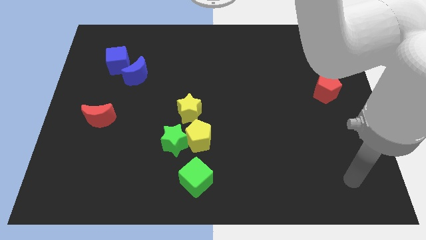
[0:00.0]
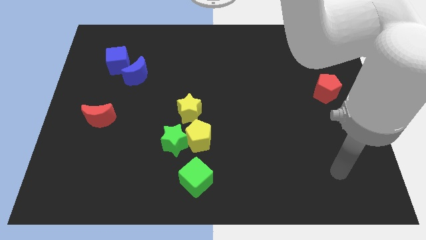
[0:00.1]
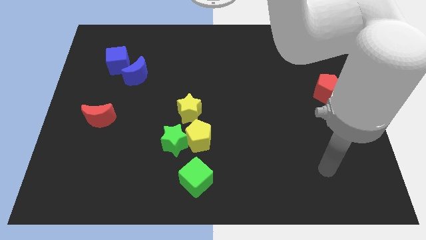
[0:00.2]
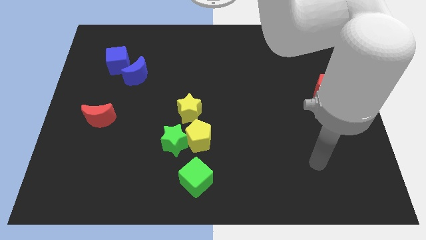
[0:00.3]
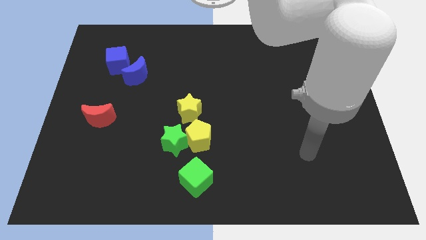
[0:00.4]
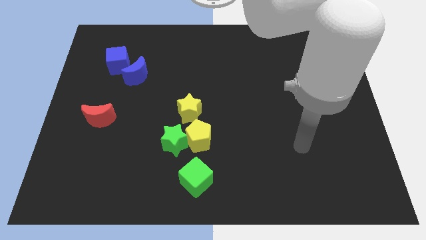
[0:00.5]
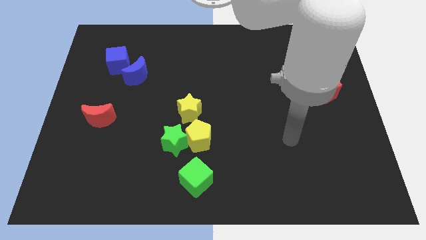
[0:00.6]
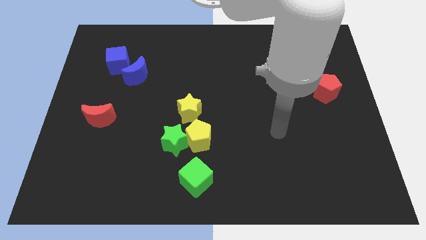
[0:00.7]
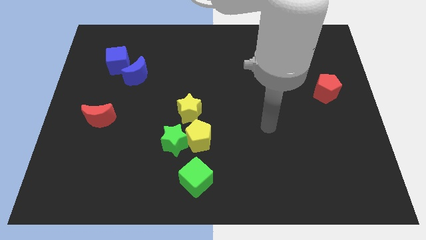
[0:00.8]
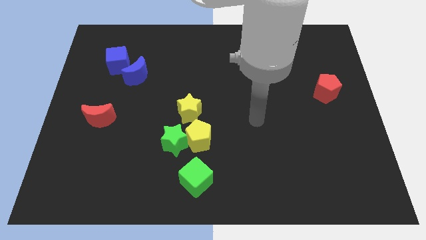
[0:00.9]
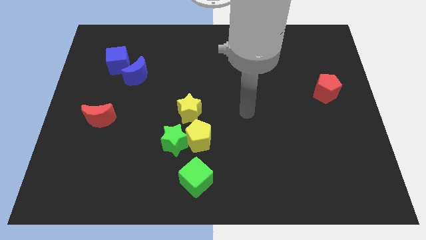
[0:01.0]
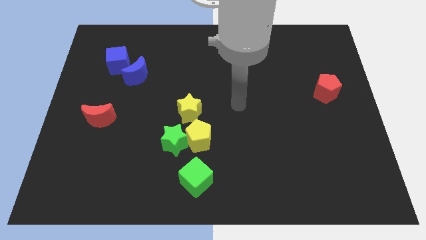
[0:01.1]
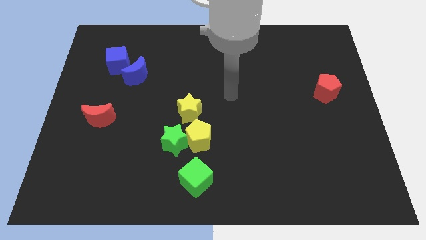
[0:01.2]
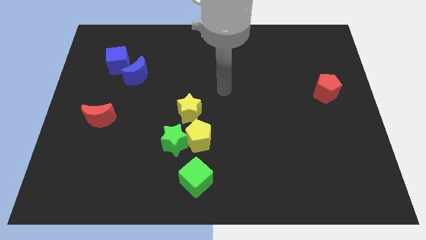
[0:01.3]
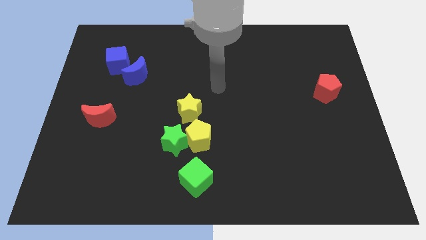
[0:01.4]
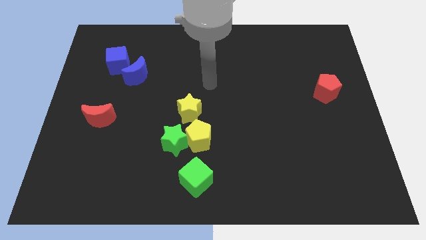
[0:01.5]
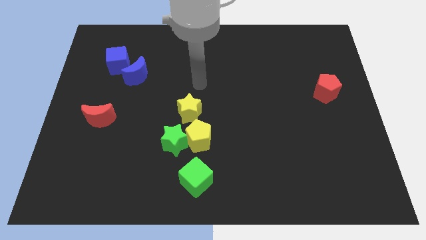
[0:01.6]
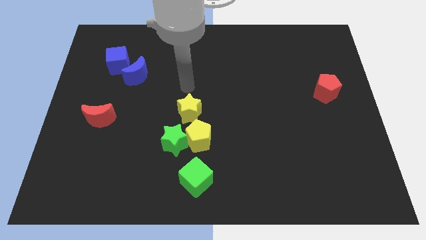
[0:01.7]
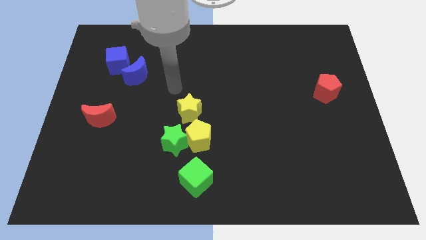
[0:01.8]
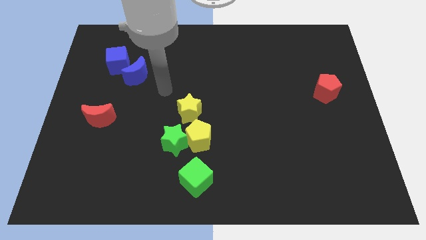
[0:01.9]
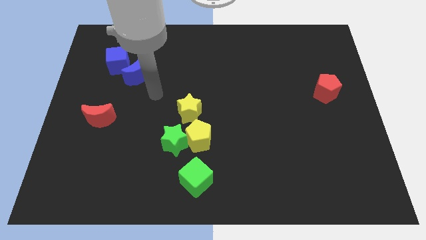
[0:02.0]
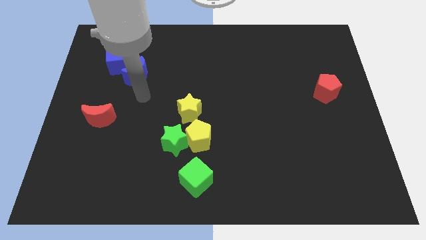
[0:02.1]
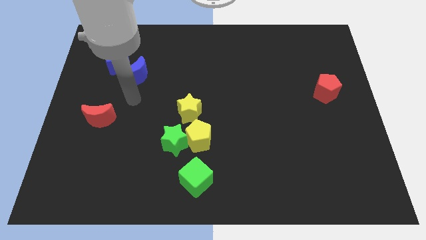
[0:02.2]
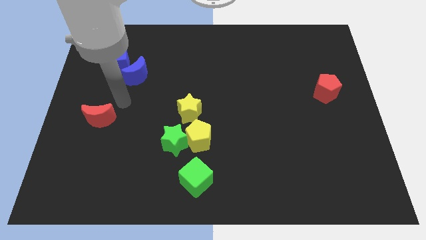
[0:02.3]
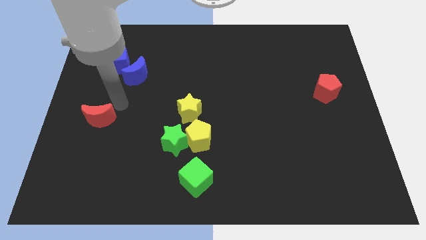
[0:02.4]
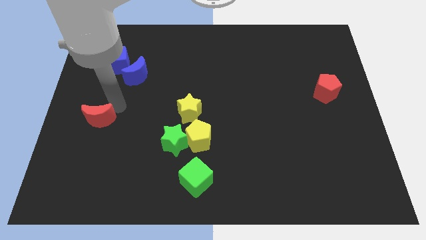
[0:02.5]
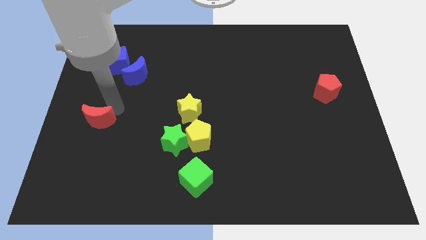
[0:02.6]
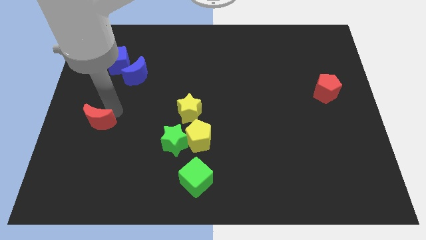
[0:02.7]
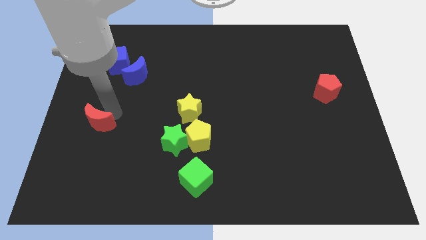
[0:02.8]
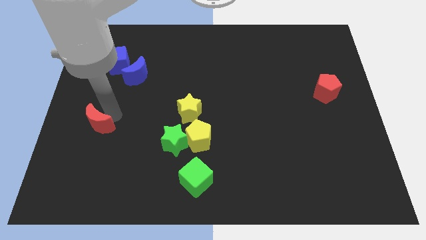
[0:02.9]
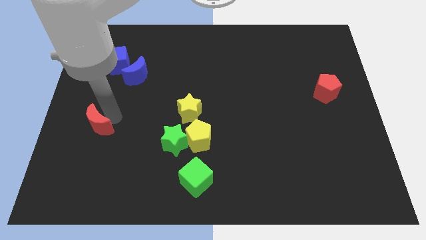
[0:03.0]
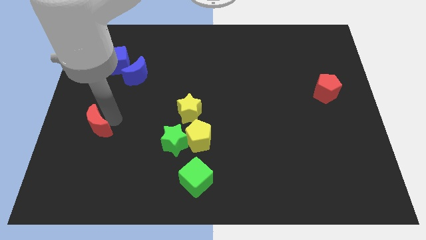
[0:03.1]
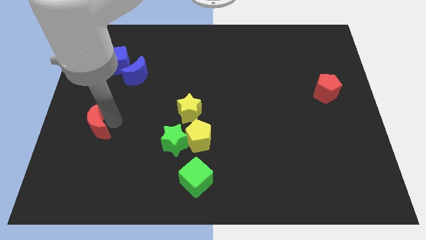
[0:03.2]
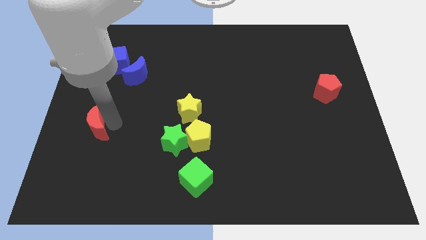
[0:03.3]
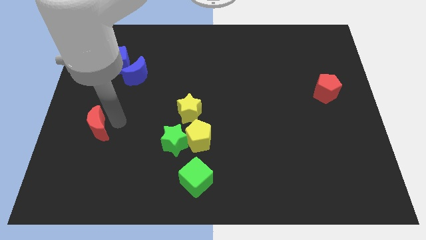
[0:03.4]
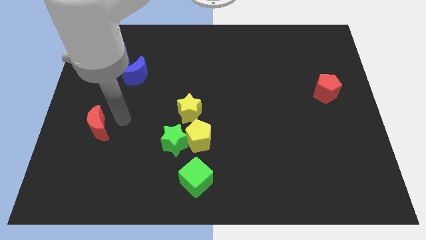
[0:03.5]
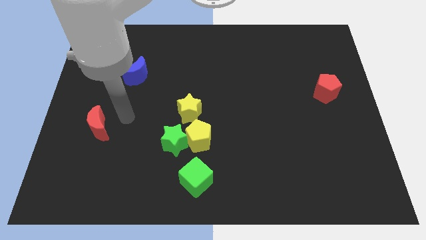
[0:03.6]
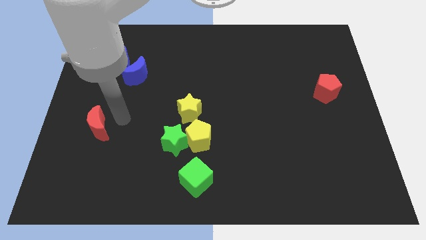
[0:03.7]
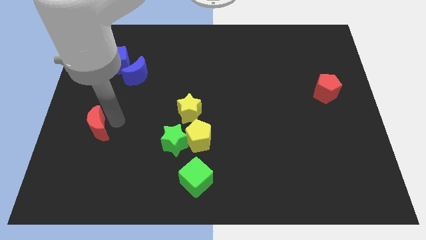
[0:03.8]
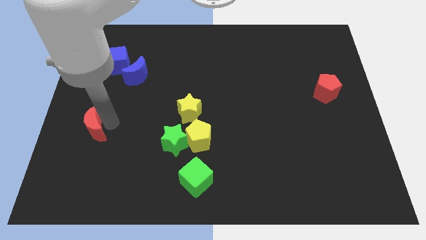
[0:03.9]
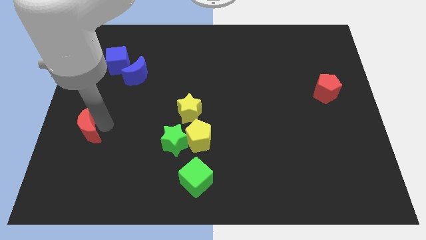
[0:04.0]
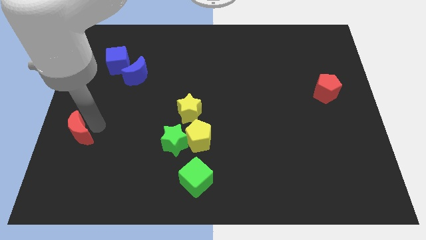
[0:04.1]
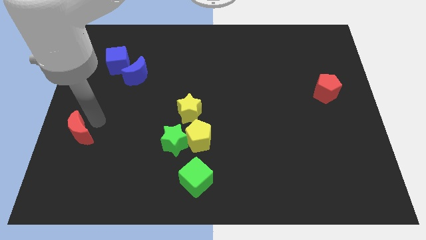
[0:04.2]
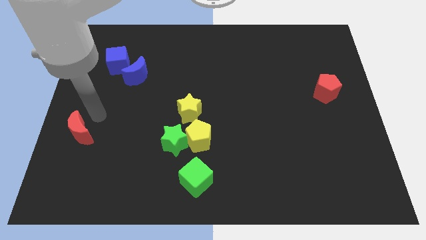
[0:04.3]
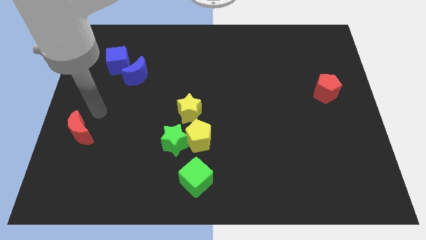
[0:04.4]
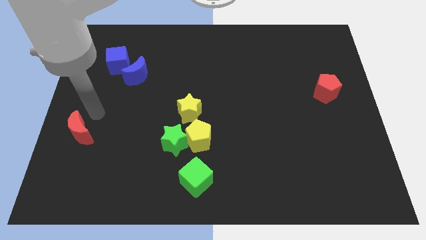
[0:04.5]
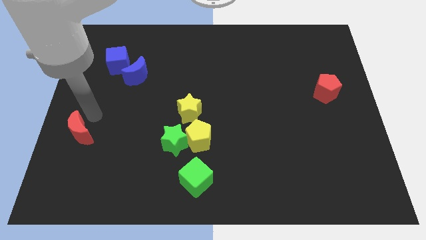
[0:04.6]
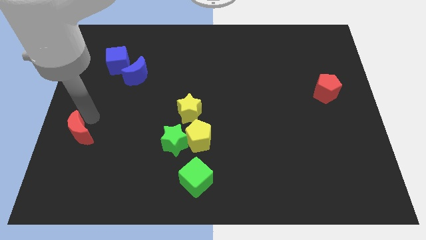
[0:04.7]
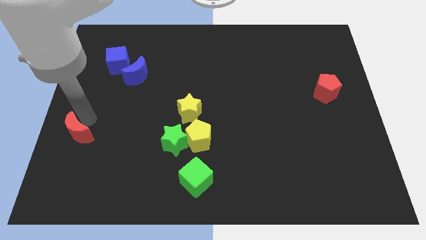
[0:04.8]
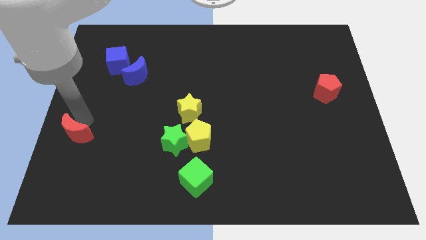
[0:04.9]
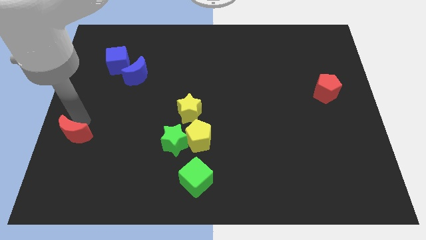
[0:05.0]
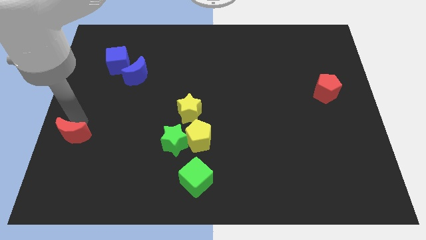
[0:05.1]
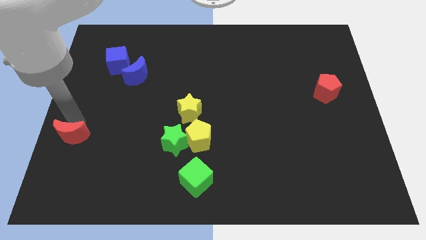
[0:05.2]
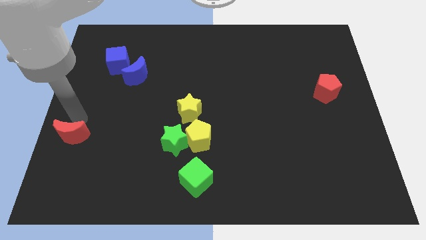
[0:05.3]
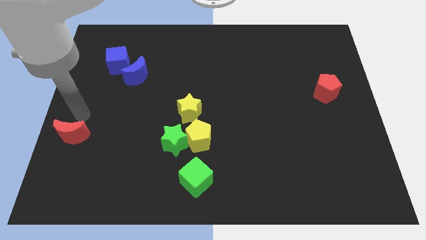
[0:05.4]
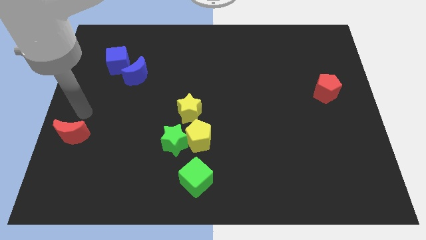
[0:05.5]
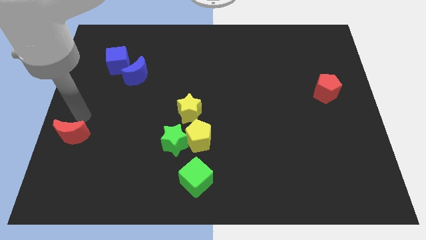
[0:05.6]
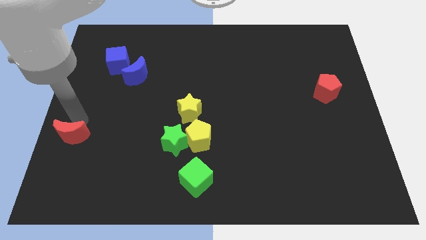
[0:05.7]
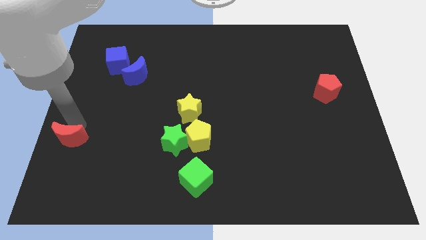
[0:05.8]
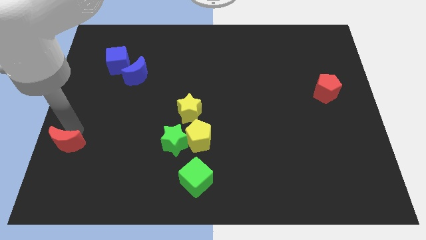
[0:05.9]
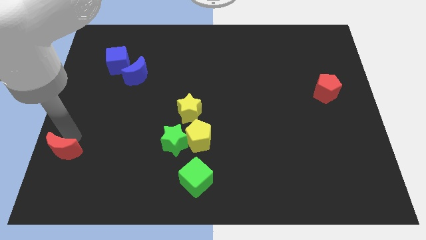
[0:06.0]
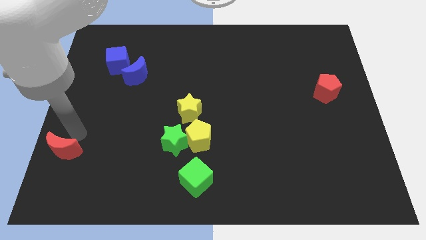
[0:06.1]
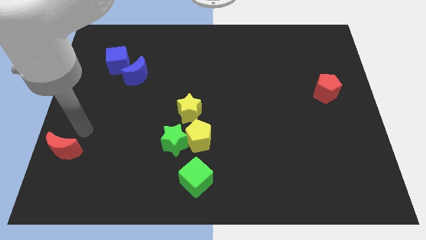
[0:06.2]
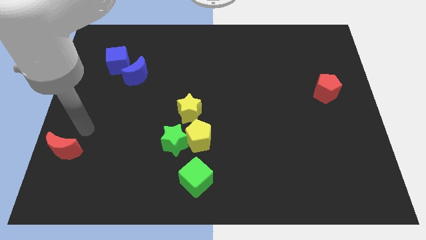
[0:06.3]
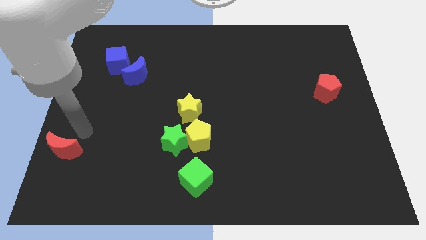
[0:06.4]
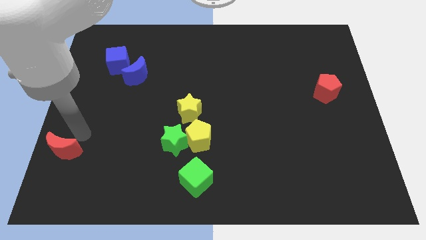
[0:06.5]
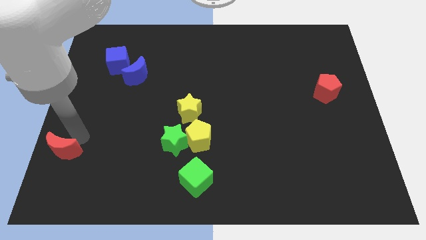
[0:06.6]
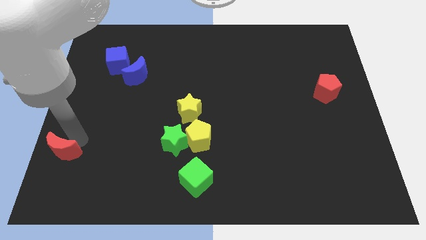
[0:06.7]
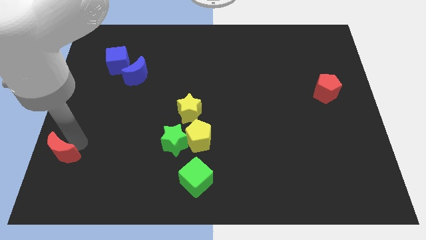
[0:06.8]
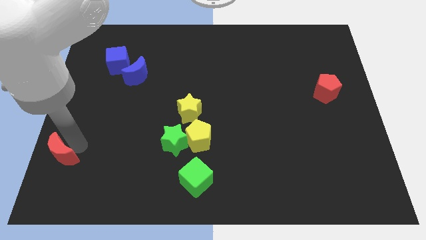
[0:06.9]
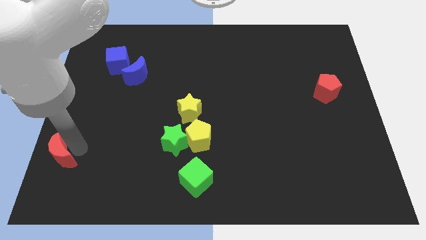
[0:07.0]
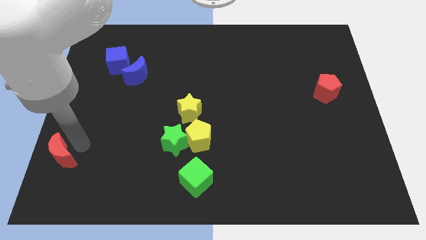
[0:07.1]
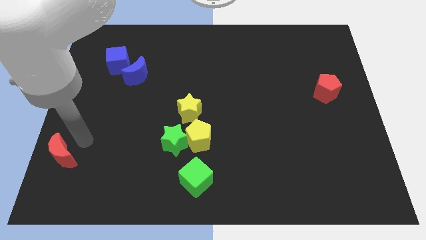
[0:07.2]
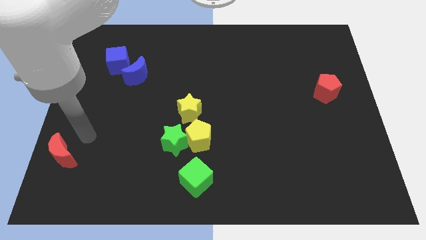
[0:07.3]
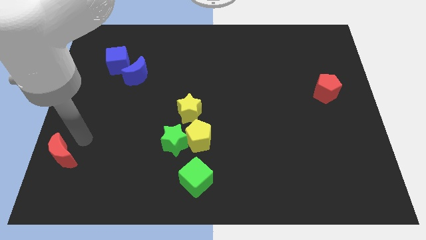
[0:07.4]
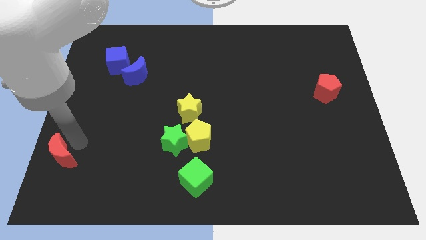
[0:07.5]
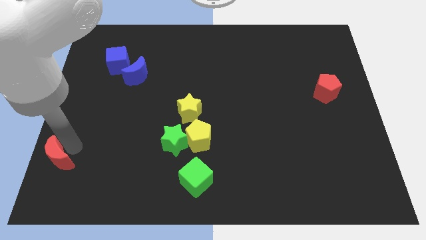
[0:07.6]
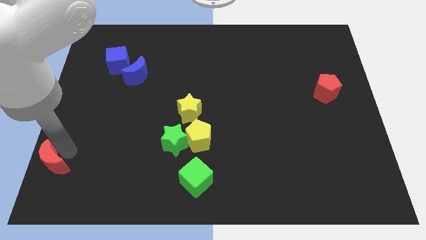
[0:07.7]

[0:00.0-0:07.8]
move the red moon to the bottom left corner
